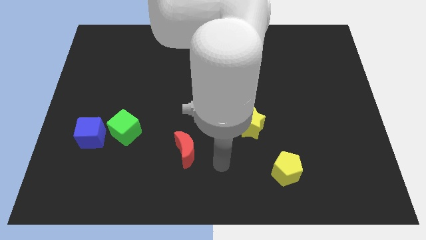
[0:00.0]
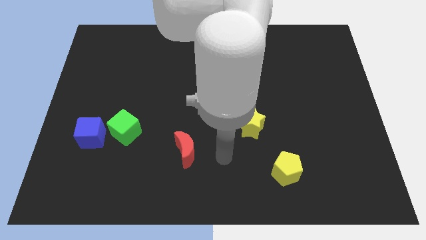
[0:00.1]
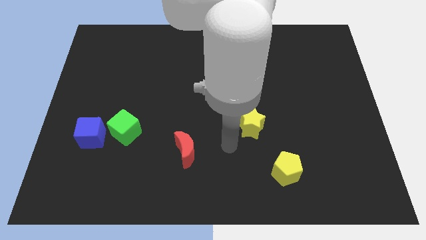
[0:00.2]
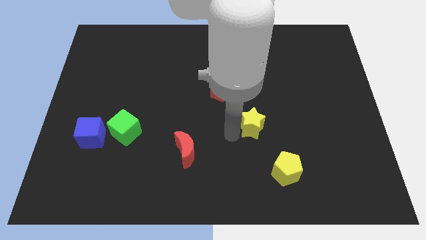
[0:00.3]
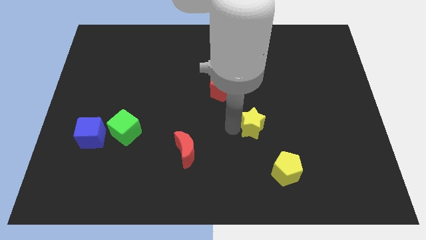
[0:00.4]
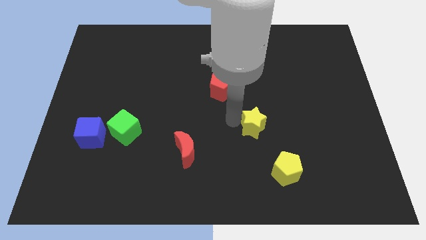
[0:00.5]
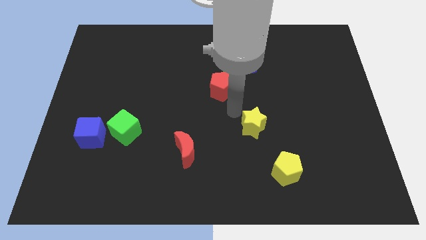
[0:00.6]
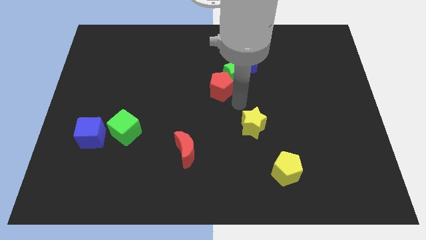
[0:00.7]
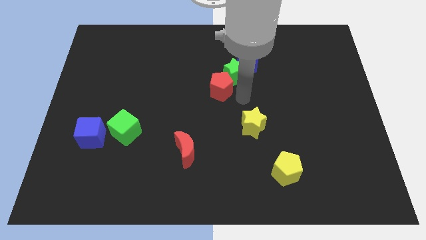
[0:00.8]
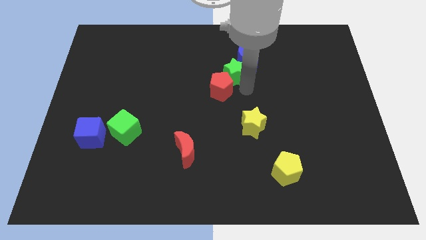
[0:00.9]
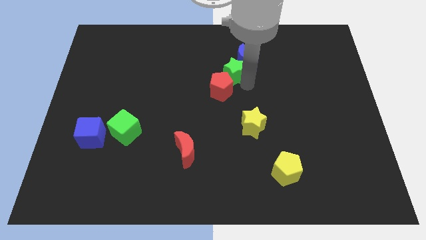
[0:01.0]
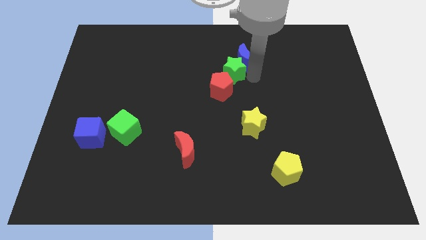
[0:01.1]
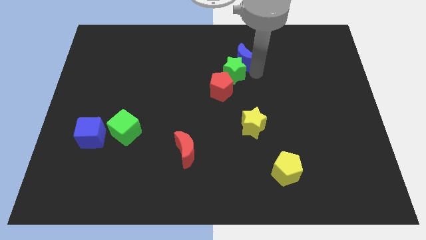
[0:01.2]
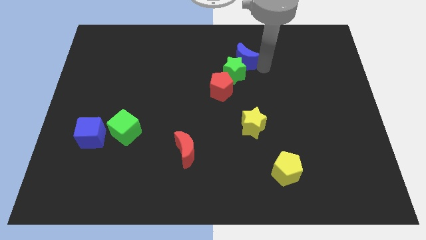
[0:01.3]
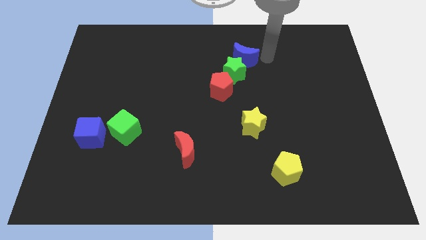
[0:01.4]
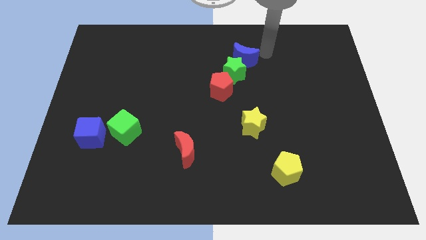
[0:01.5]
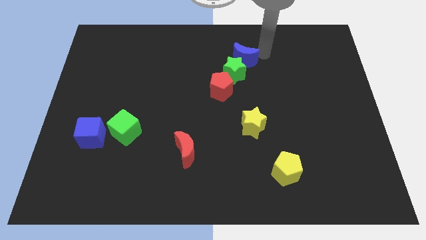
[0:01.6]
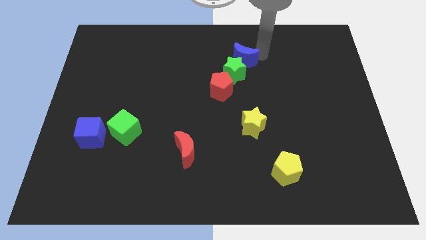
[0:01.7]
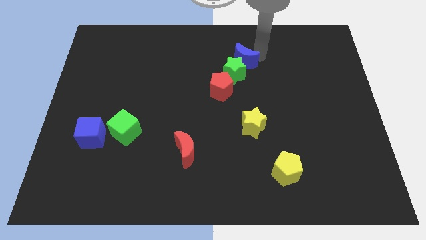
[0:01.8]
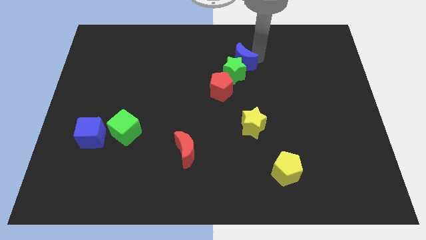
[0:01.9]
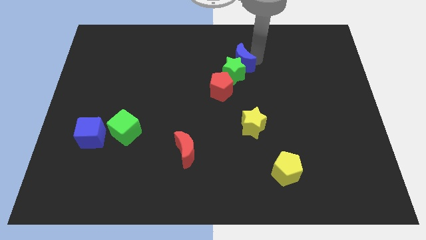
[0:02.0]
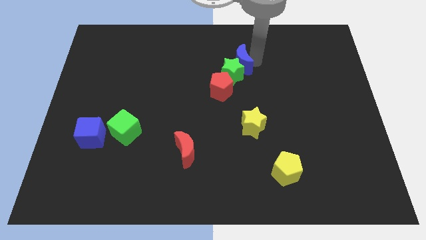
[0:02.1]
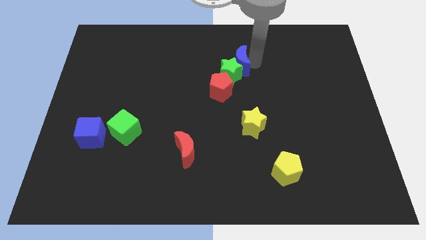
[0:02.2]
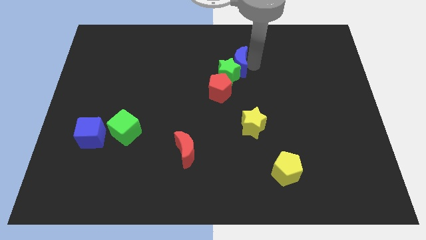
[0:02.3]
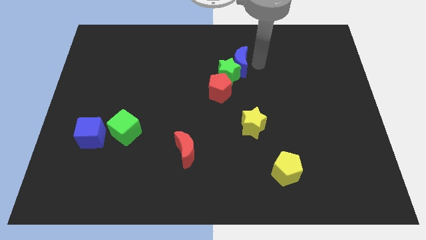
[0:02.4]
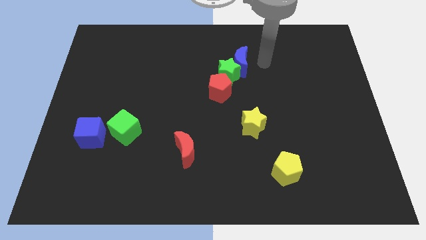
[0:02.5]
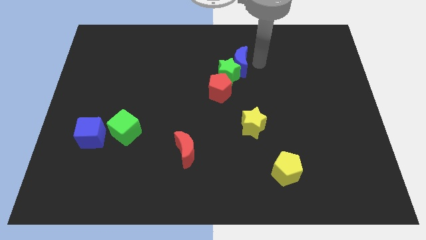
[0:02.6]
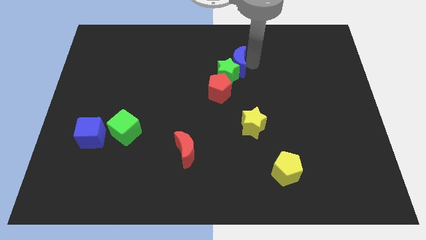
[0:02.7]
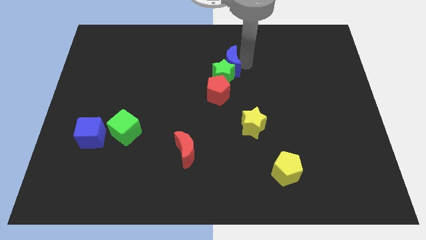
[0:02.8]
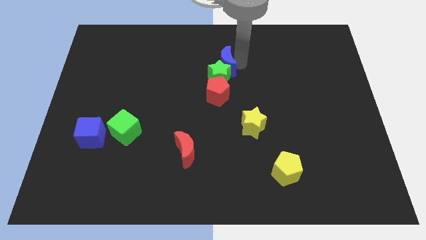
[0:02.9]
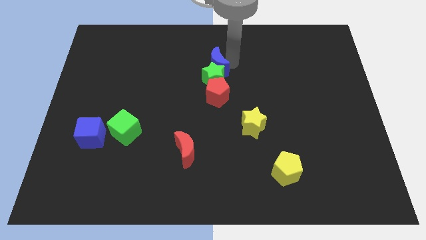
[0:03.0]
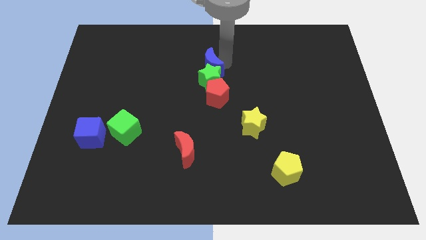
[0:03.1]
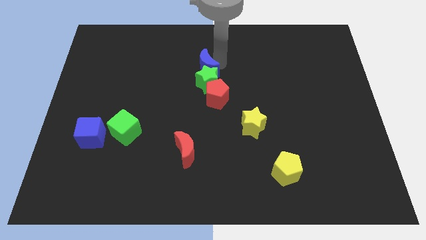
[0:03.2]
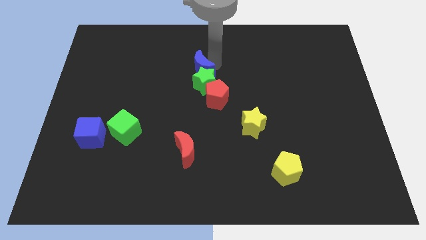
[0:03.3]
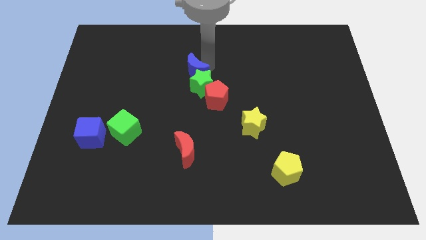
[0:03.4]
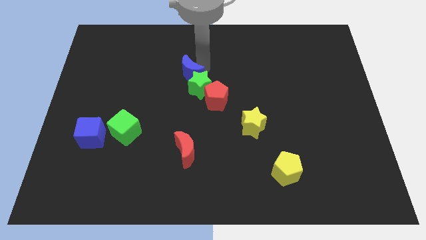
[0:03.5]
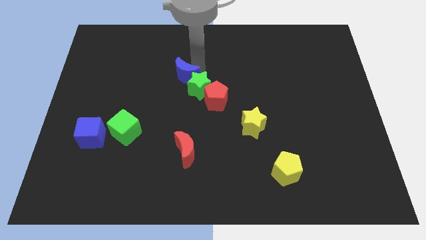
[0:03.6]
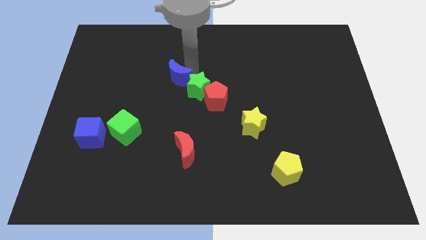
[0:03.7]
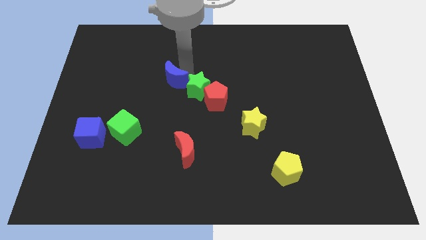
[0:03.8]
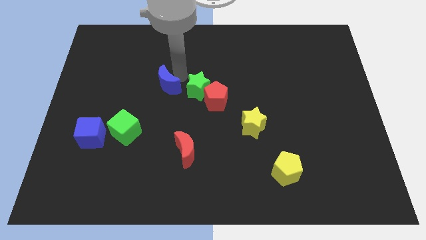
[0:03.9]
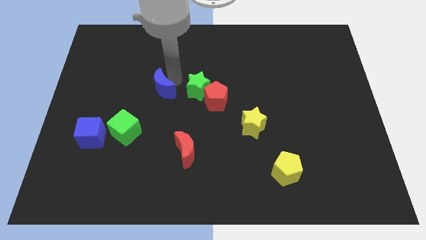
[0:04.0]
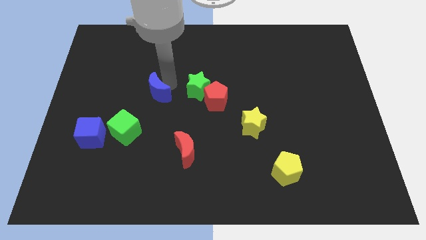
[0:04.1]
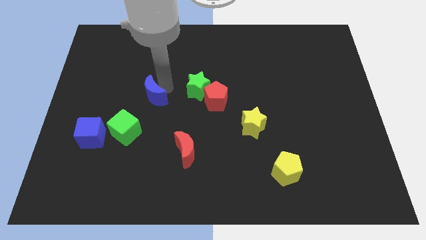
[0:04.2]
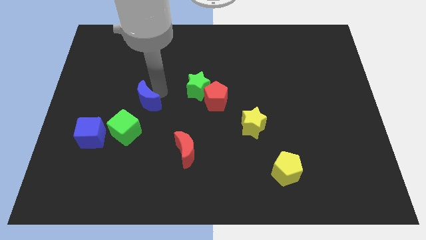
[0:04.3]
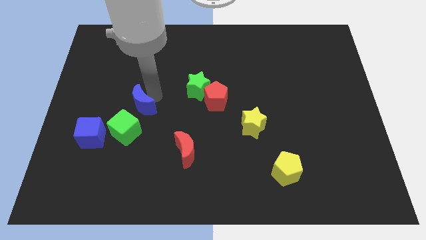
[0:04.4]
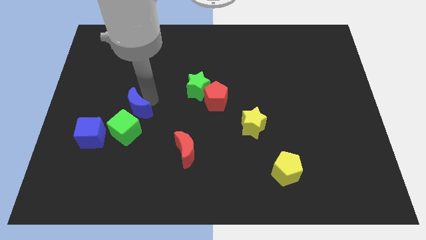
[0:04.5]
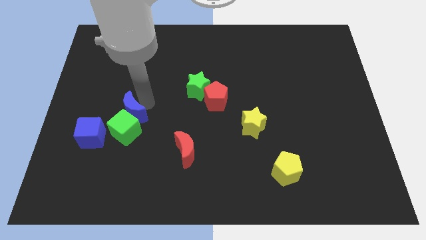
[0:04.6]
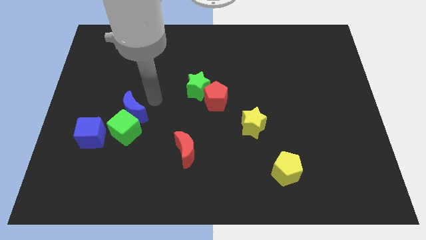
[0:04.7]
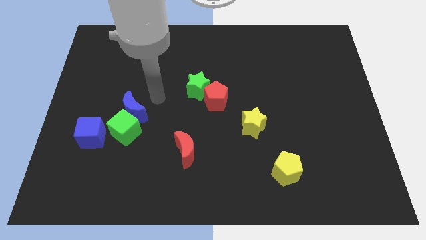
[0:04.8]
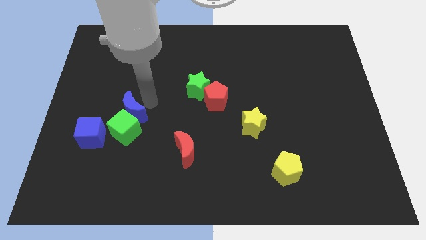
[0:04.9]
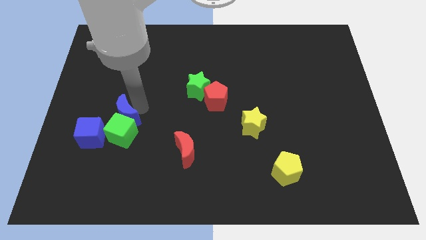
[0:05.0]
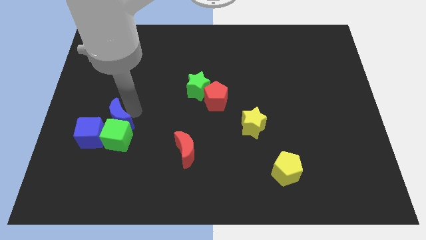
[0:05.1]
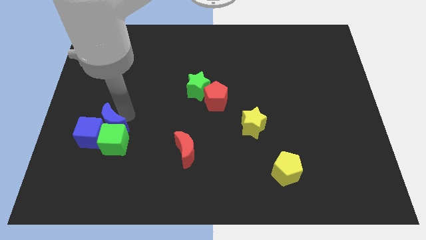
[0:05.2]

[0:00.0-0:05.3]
move the blue moon close to the blue cube
